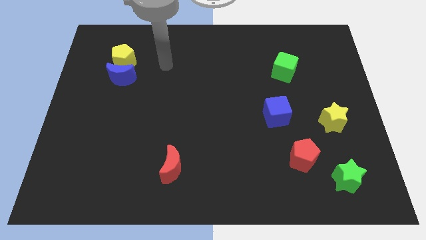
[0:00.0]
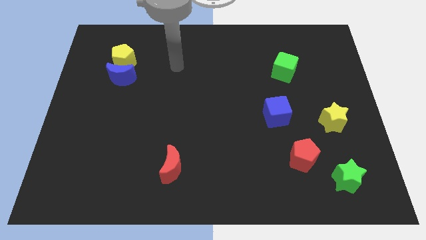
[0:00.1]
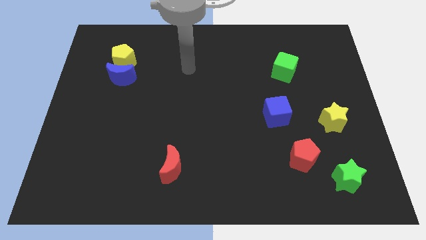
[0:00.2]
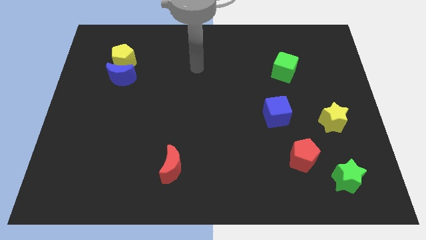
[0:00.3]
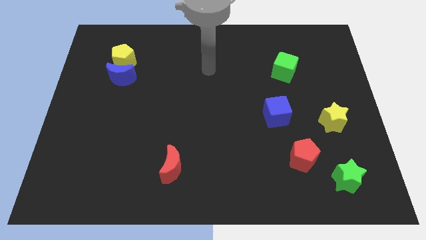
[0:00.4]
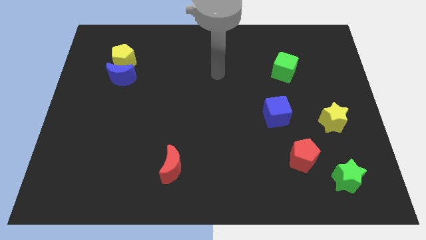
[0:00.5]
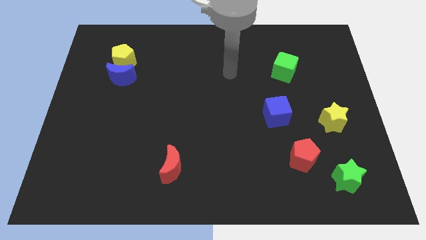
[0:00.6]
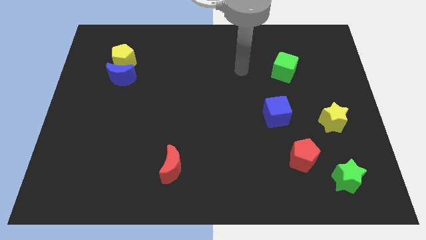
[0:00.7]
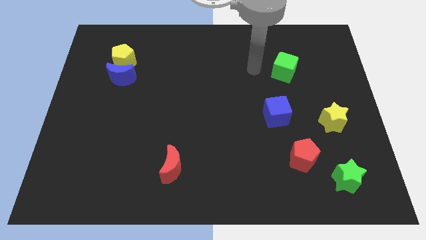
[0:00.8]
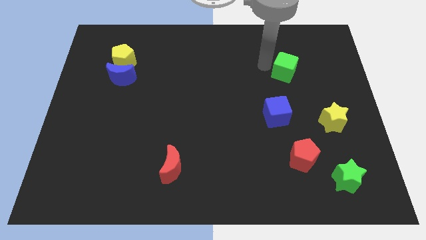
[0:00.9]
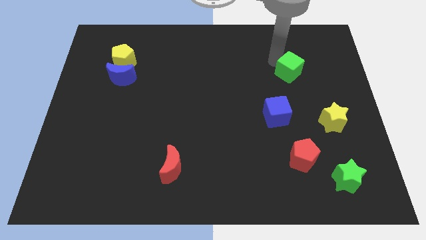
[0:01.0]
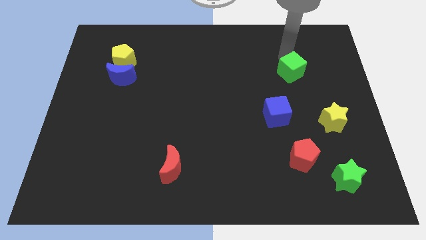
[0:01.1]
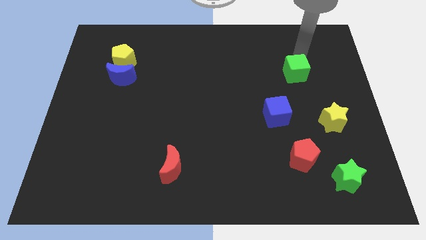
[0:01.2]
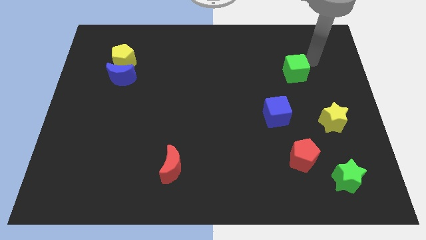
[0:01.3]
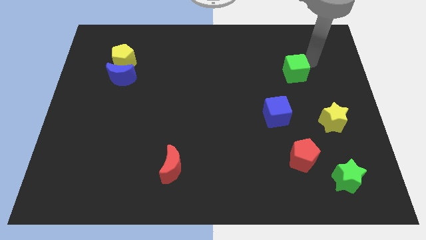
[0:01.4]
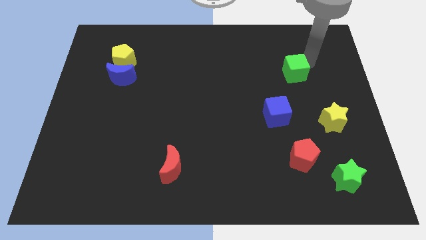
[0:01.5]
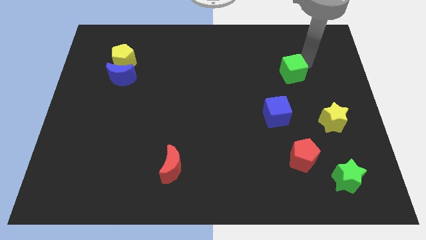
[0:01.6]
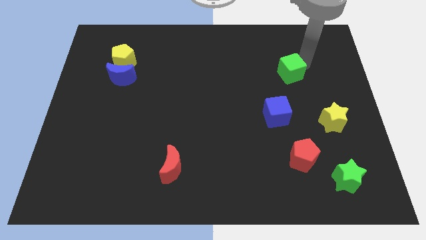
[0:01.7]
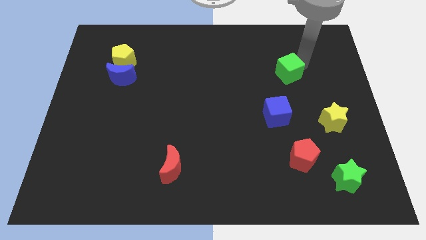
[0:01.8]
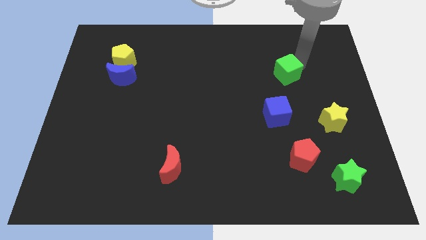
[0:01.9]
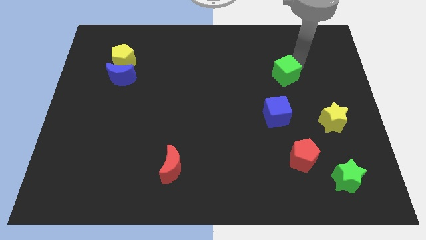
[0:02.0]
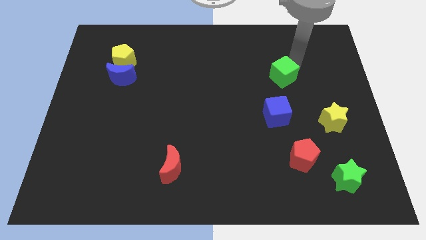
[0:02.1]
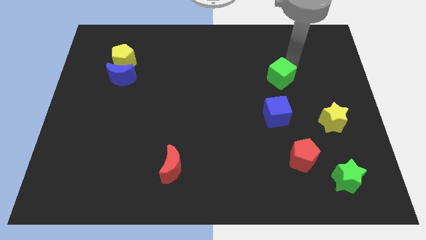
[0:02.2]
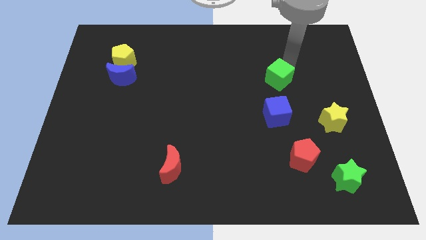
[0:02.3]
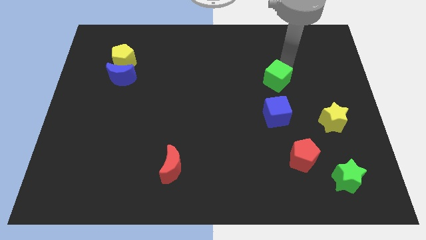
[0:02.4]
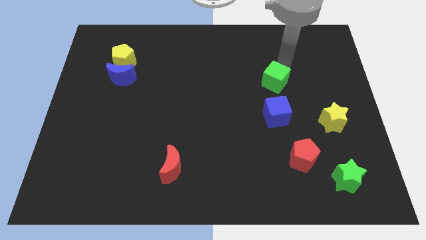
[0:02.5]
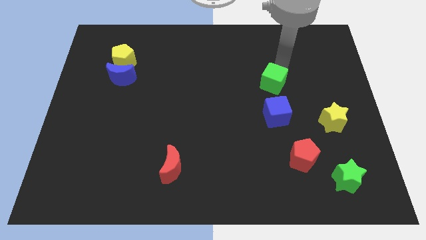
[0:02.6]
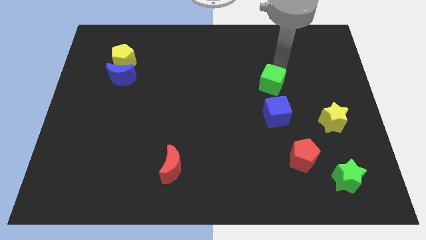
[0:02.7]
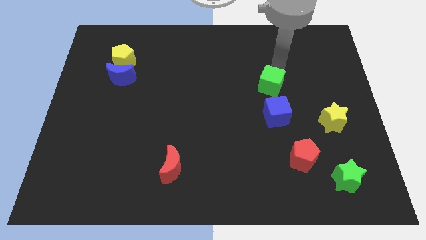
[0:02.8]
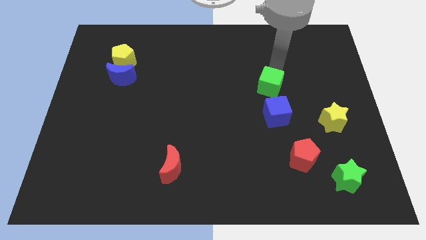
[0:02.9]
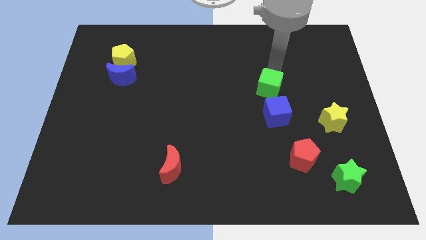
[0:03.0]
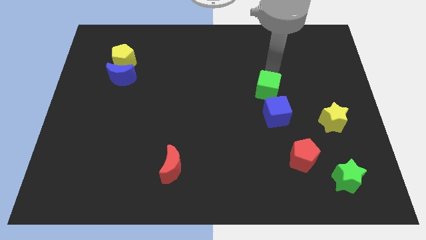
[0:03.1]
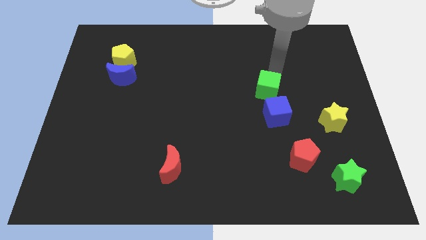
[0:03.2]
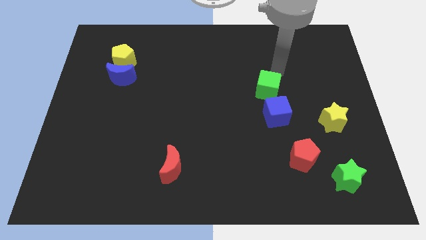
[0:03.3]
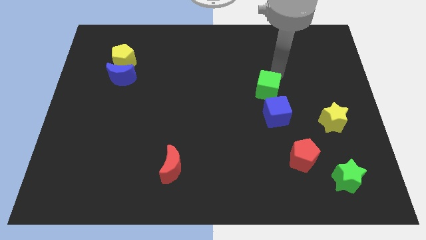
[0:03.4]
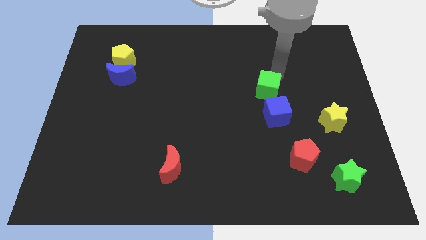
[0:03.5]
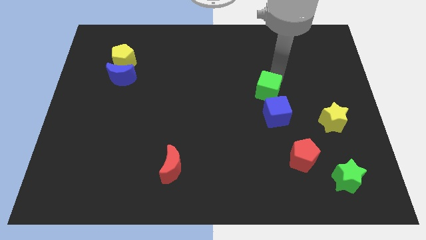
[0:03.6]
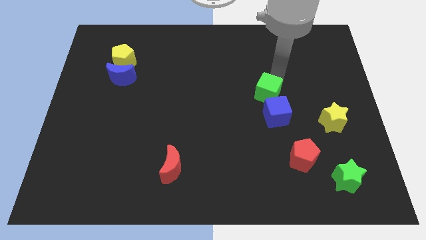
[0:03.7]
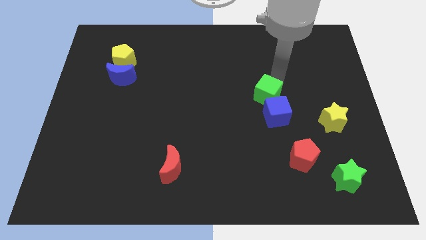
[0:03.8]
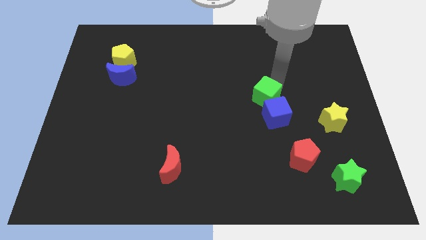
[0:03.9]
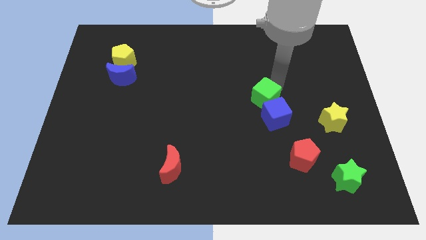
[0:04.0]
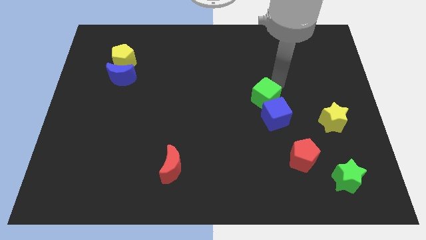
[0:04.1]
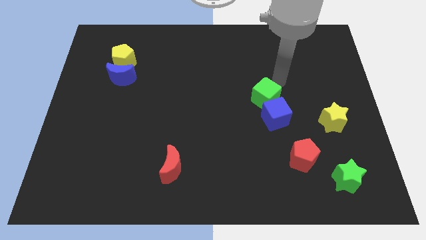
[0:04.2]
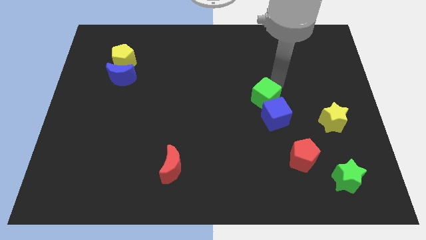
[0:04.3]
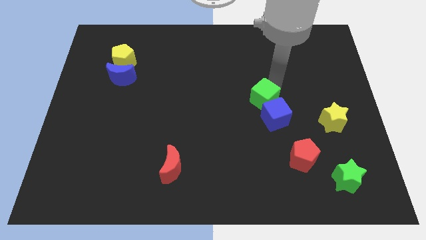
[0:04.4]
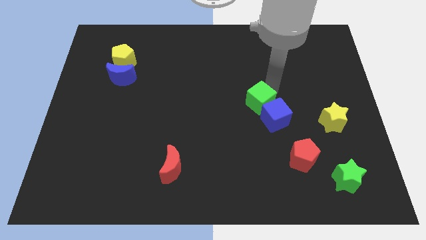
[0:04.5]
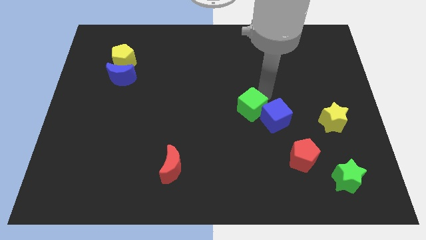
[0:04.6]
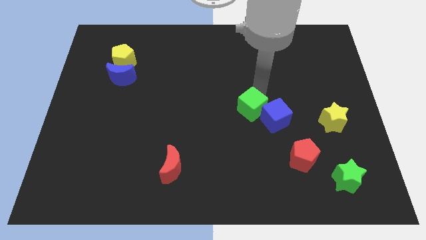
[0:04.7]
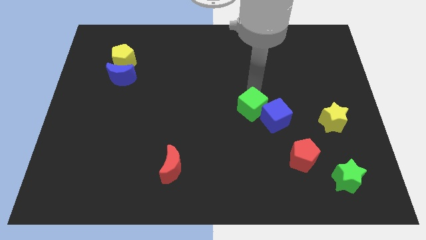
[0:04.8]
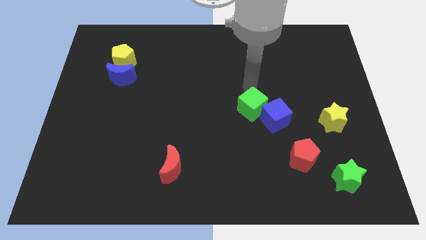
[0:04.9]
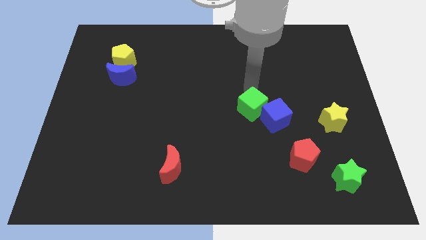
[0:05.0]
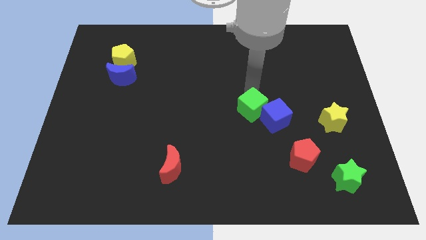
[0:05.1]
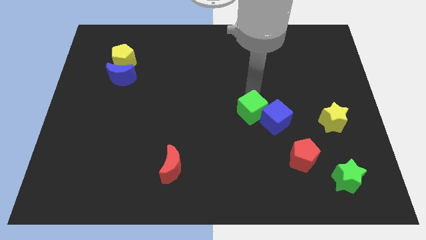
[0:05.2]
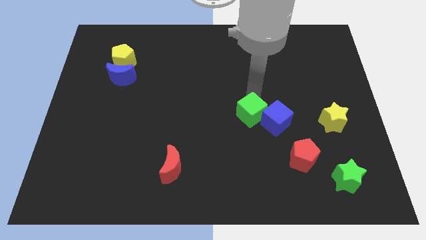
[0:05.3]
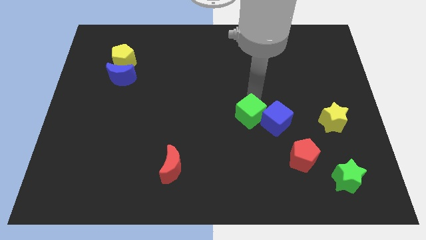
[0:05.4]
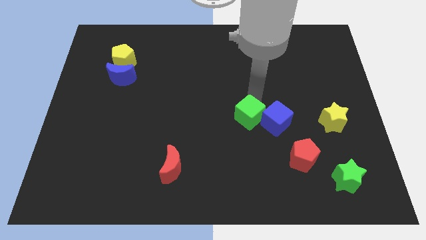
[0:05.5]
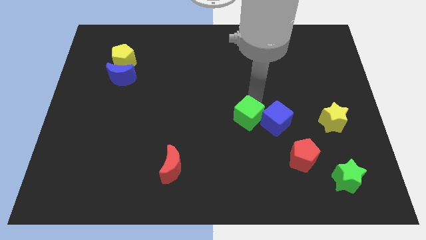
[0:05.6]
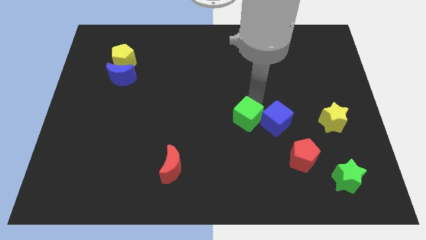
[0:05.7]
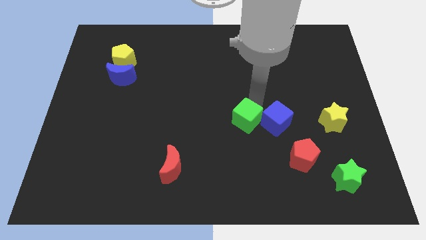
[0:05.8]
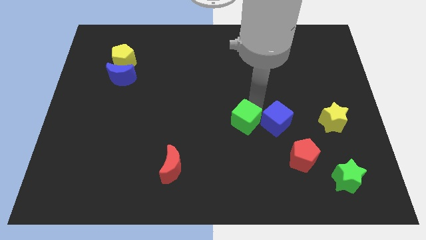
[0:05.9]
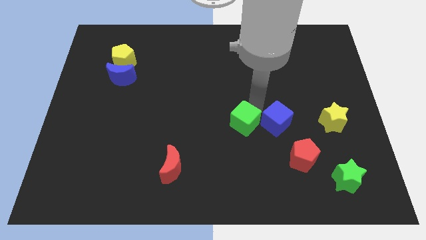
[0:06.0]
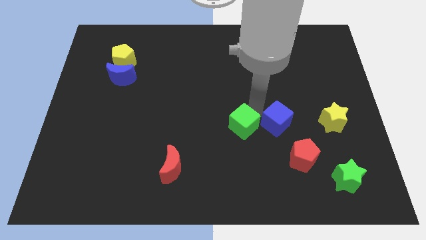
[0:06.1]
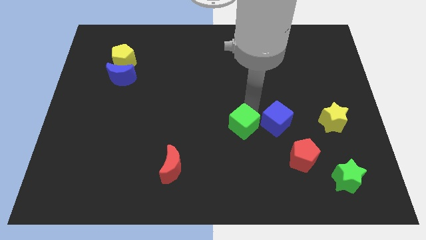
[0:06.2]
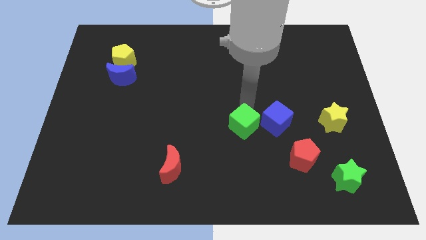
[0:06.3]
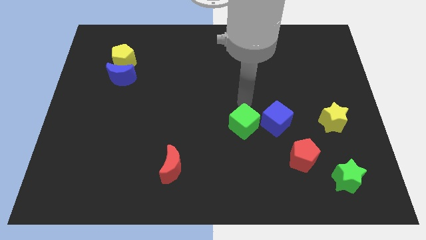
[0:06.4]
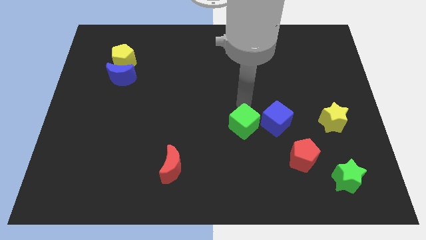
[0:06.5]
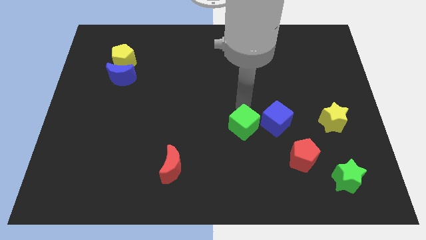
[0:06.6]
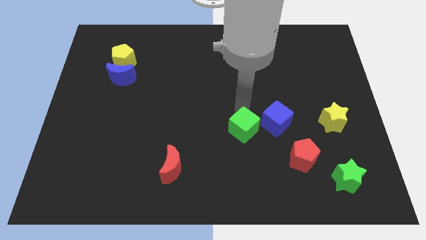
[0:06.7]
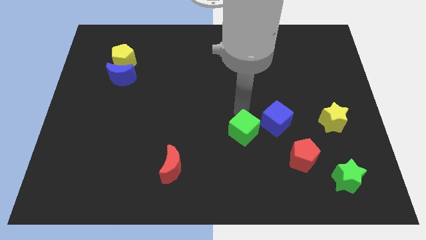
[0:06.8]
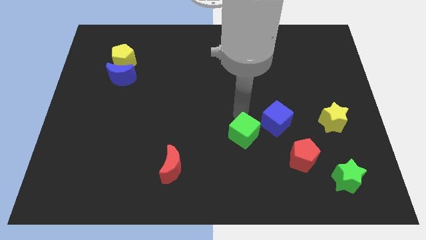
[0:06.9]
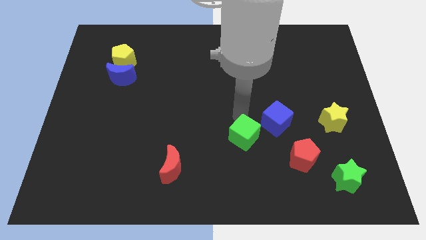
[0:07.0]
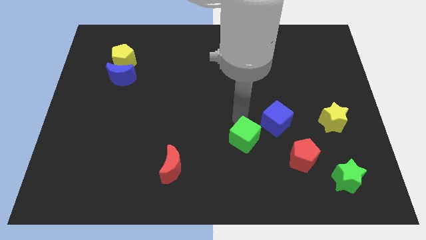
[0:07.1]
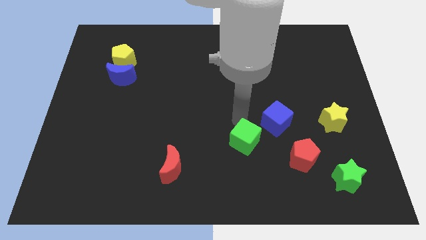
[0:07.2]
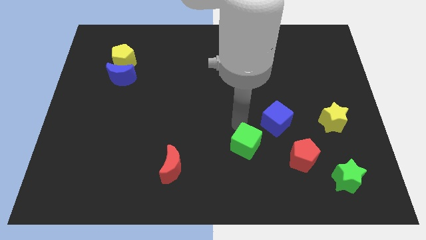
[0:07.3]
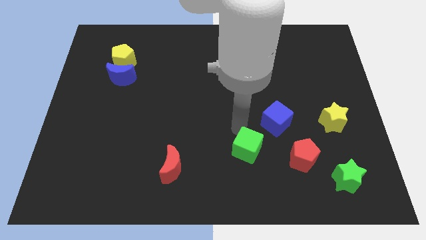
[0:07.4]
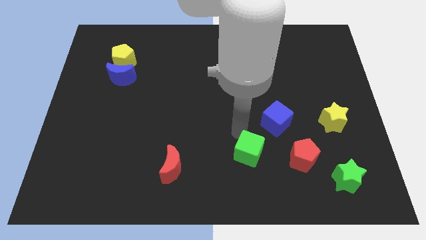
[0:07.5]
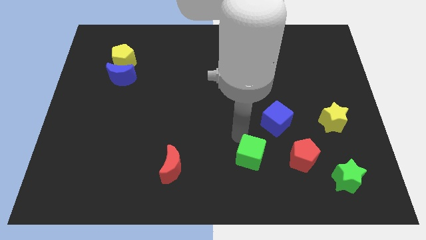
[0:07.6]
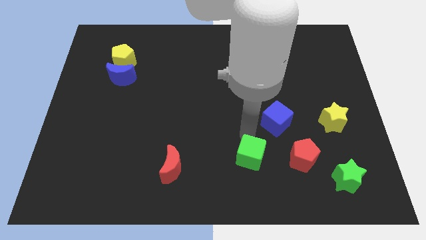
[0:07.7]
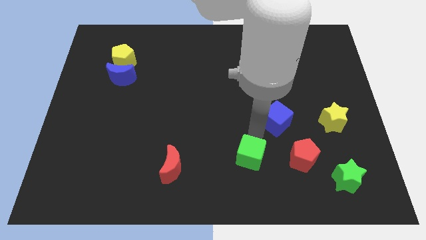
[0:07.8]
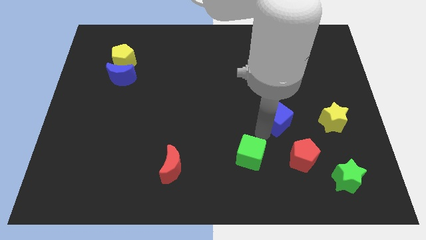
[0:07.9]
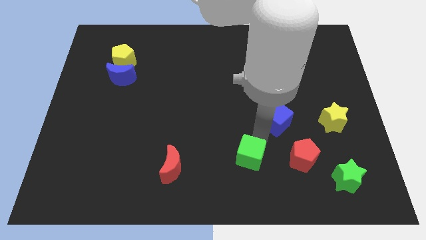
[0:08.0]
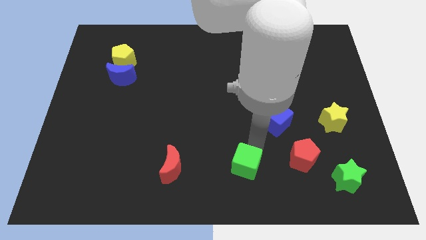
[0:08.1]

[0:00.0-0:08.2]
slide the green cube to the bottom
